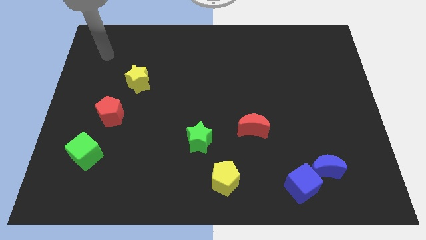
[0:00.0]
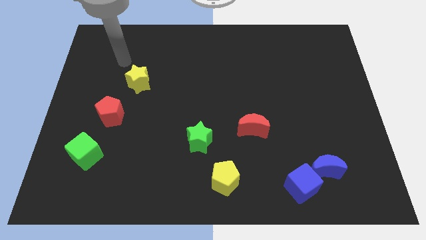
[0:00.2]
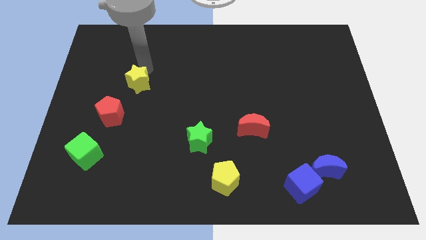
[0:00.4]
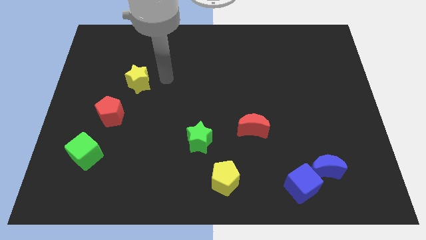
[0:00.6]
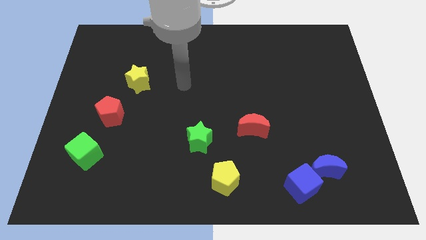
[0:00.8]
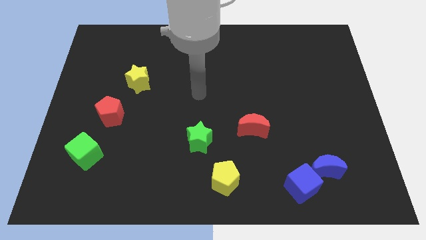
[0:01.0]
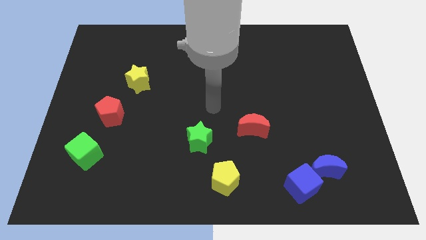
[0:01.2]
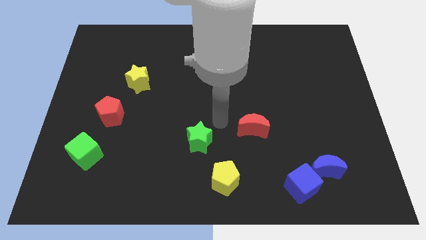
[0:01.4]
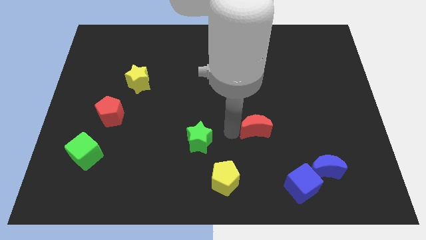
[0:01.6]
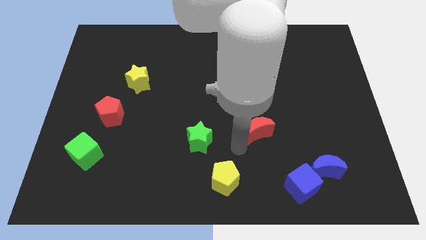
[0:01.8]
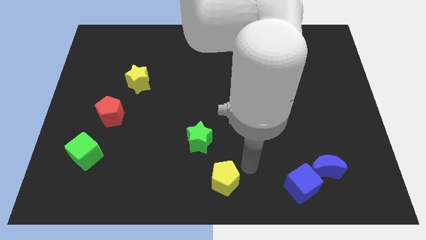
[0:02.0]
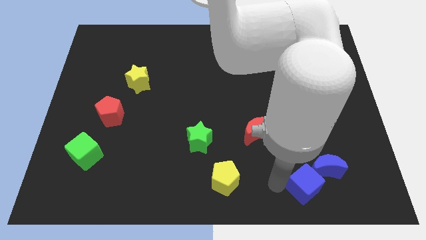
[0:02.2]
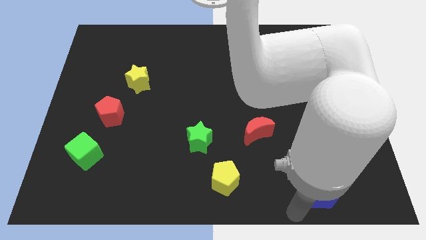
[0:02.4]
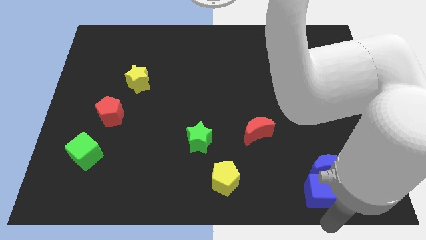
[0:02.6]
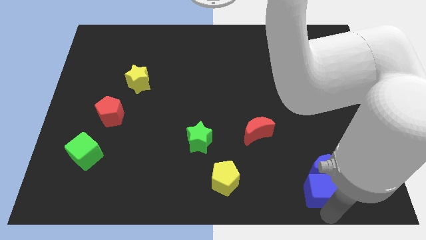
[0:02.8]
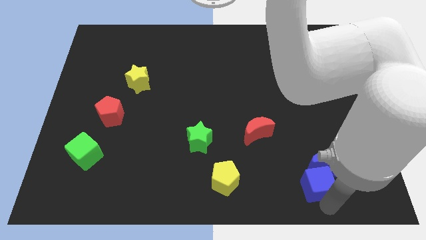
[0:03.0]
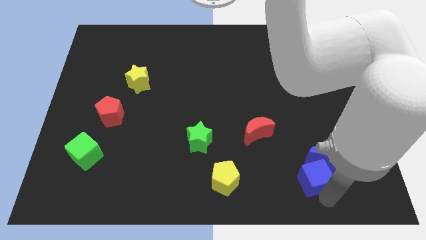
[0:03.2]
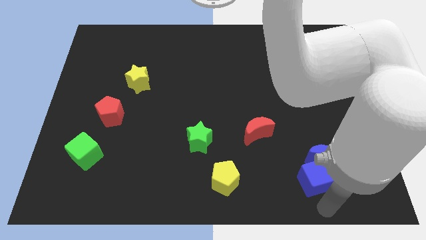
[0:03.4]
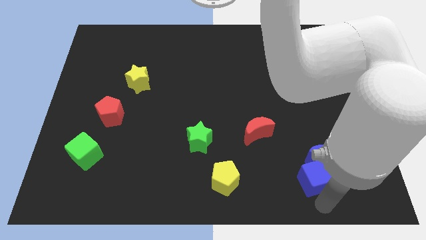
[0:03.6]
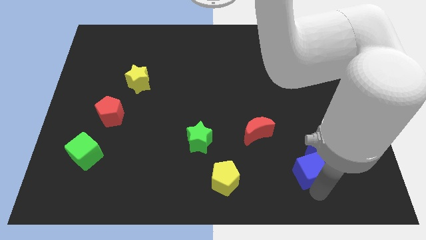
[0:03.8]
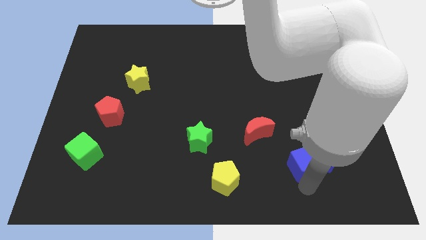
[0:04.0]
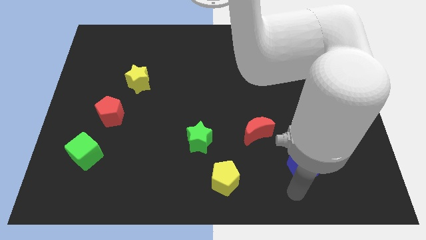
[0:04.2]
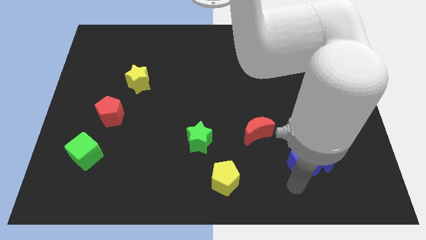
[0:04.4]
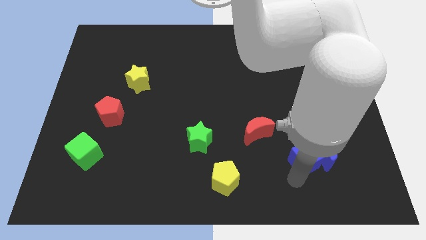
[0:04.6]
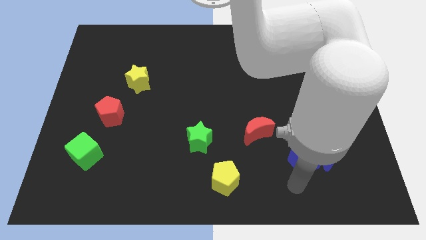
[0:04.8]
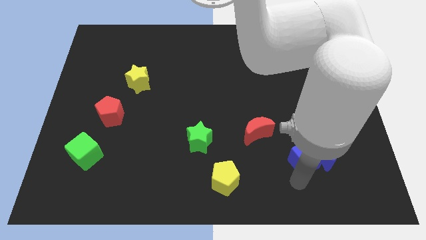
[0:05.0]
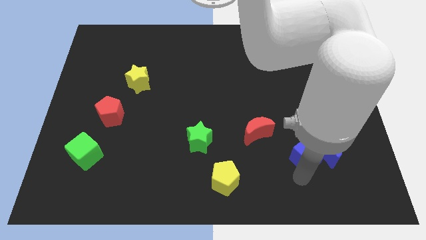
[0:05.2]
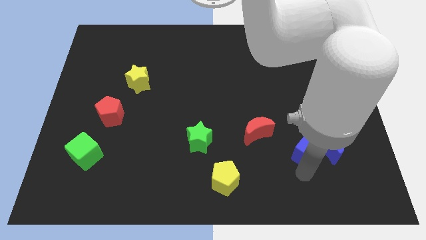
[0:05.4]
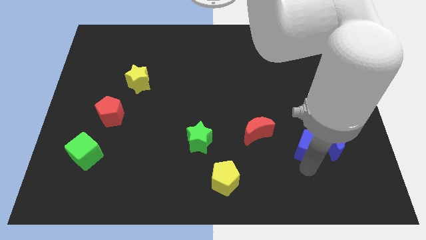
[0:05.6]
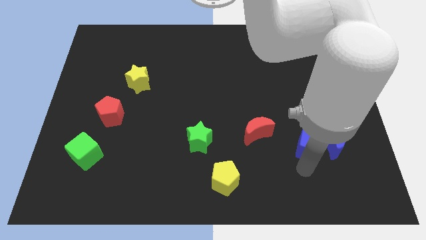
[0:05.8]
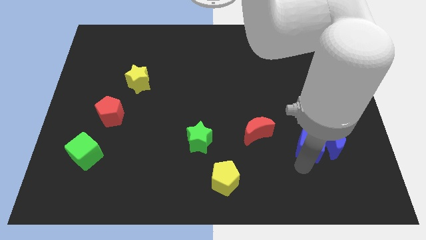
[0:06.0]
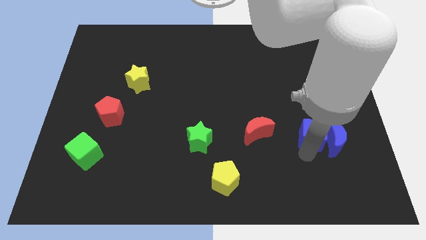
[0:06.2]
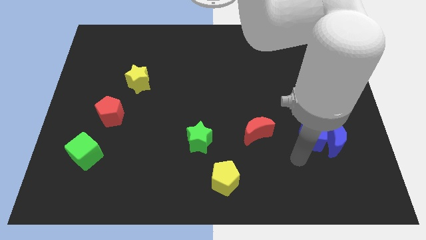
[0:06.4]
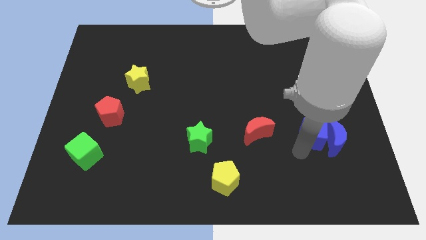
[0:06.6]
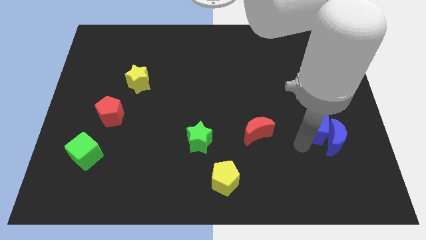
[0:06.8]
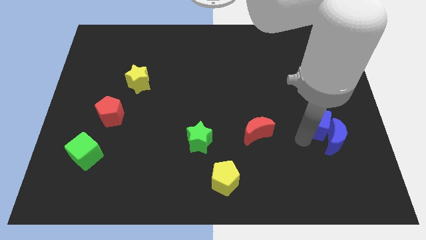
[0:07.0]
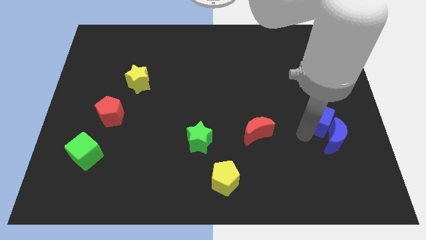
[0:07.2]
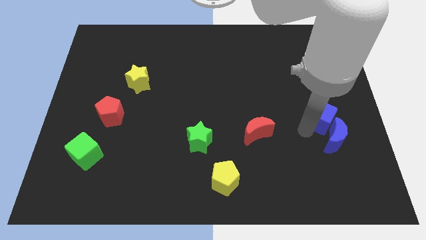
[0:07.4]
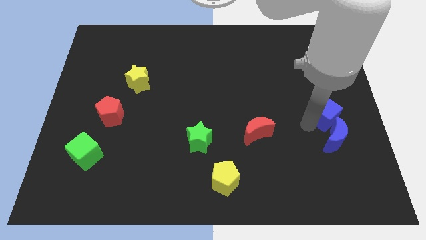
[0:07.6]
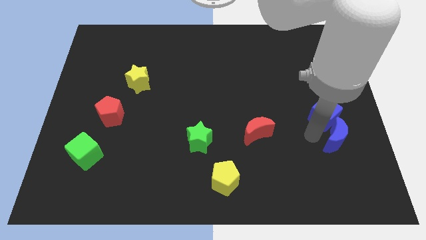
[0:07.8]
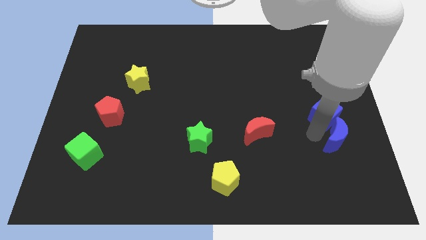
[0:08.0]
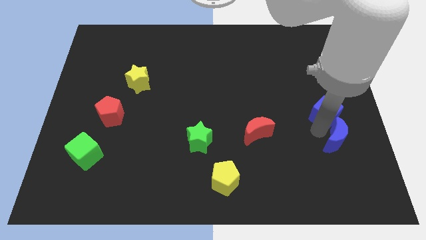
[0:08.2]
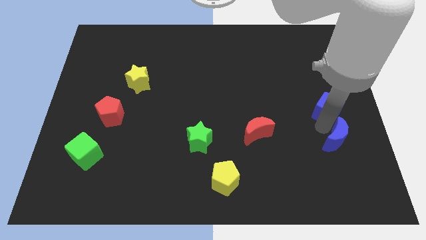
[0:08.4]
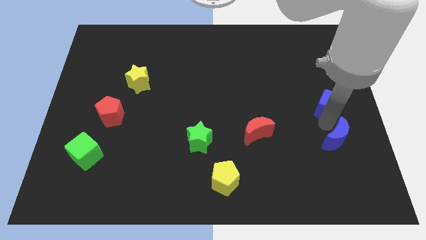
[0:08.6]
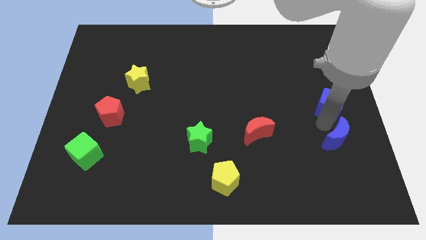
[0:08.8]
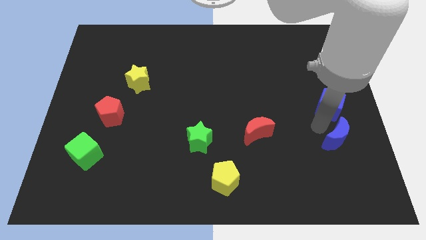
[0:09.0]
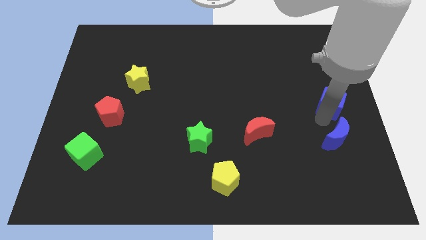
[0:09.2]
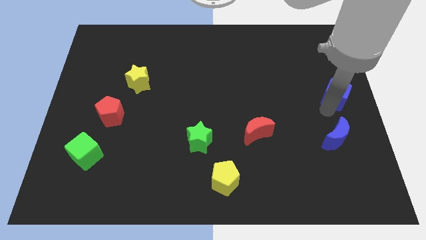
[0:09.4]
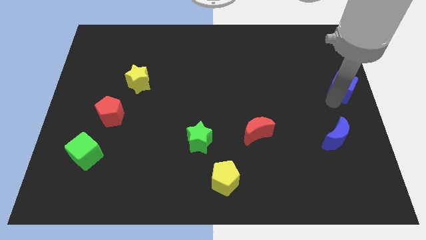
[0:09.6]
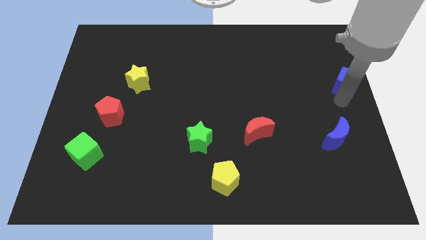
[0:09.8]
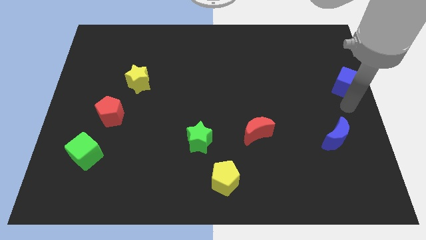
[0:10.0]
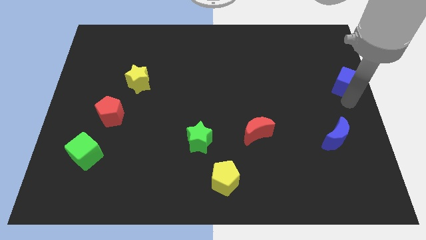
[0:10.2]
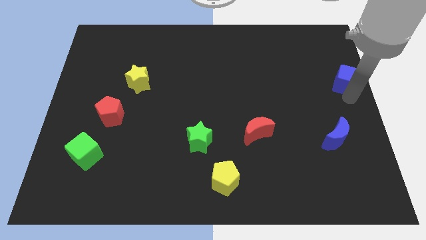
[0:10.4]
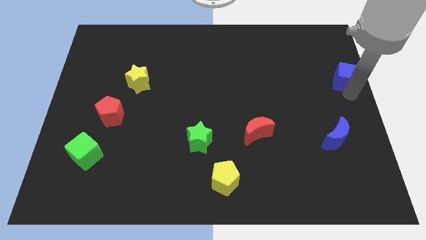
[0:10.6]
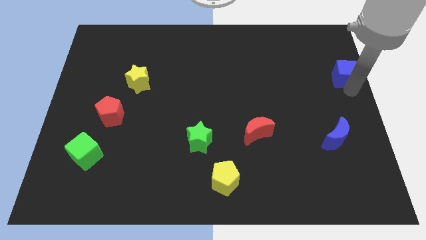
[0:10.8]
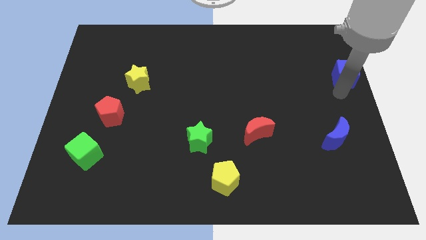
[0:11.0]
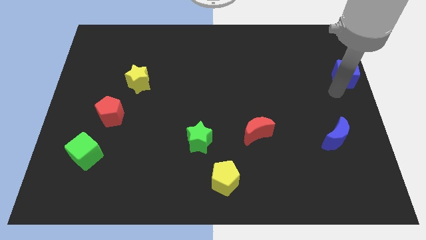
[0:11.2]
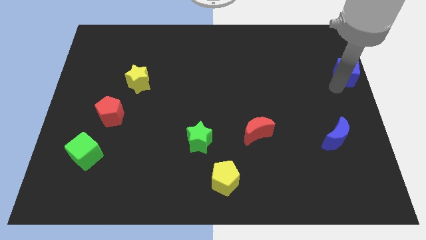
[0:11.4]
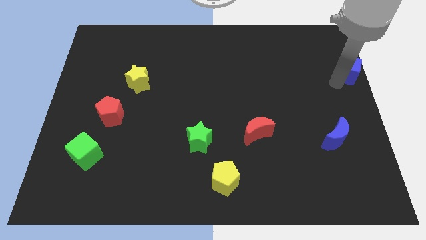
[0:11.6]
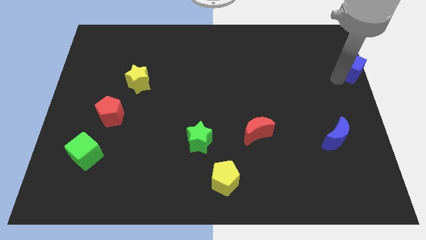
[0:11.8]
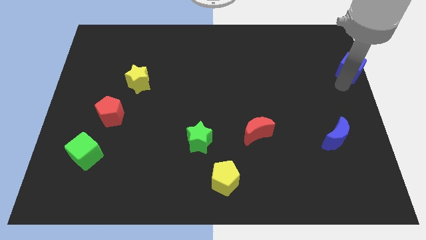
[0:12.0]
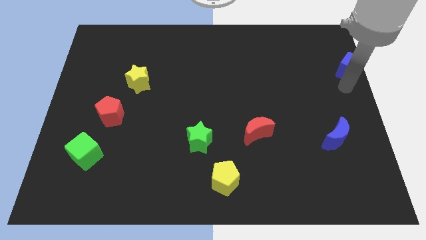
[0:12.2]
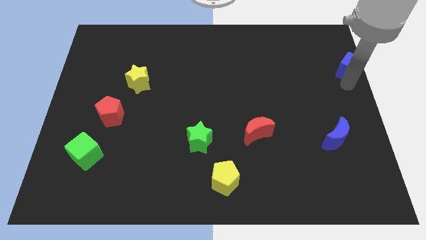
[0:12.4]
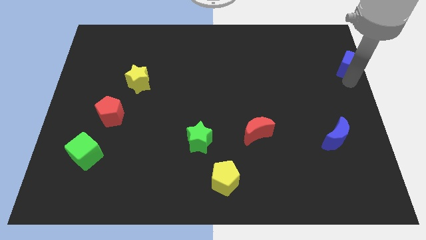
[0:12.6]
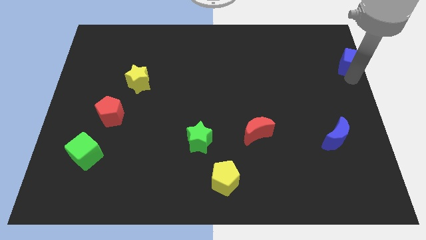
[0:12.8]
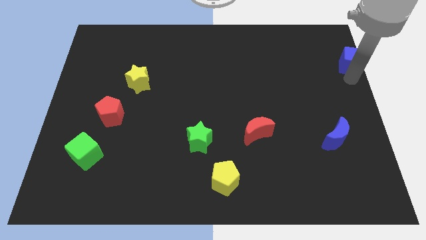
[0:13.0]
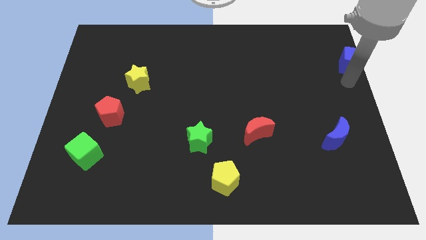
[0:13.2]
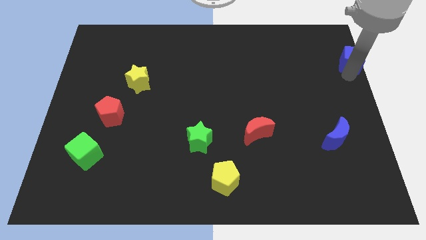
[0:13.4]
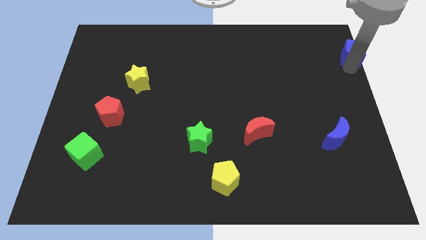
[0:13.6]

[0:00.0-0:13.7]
put the blue cube to the top right
